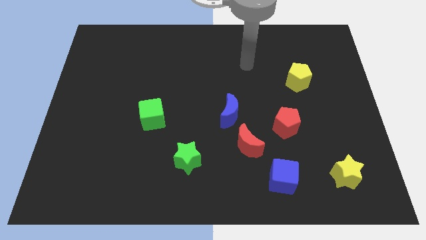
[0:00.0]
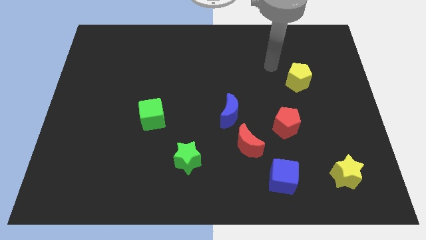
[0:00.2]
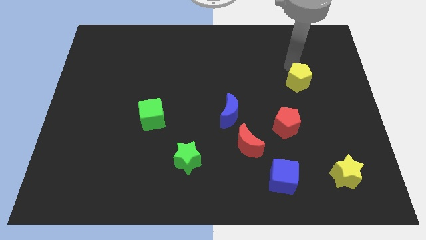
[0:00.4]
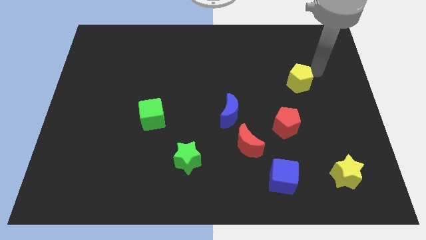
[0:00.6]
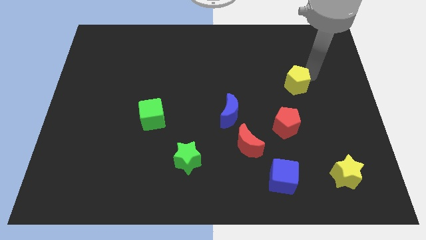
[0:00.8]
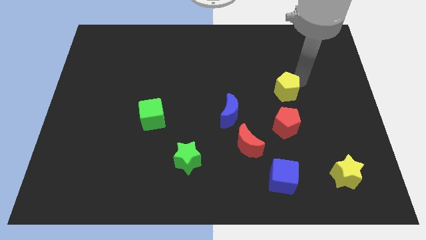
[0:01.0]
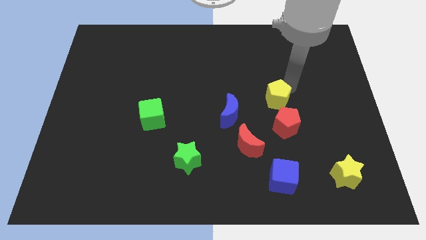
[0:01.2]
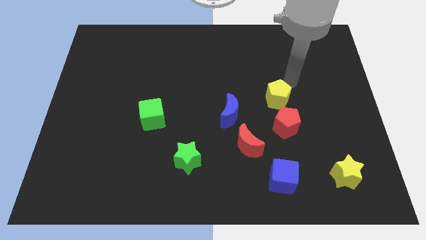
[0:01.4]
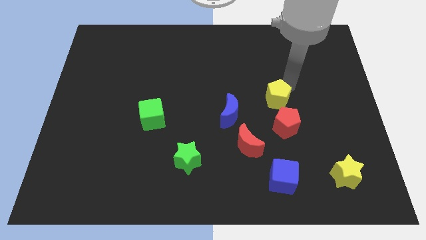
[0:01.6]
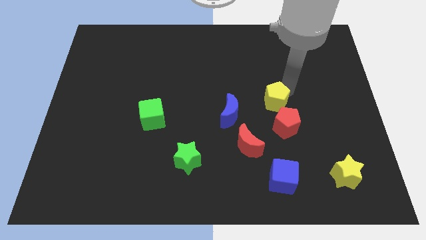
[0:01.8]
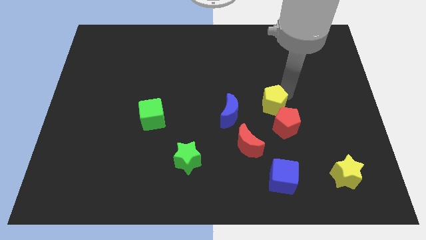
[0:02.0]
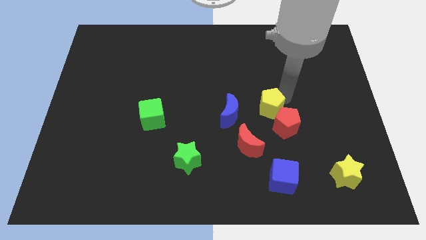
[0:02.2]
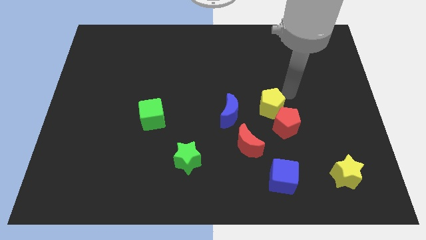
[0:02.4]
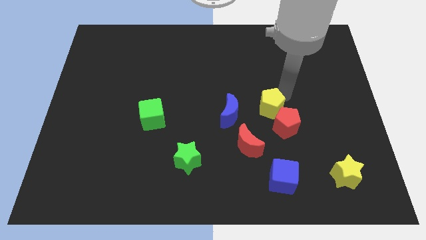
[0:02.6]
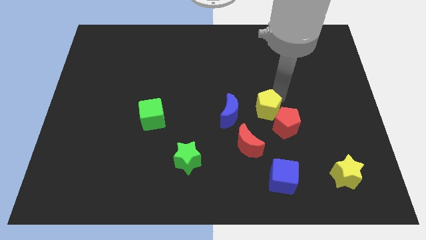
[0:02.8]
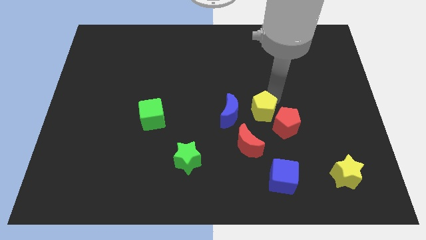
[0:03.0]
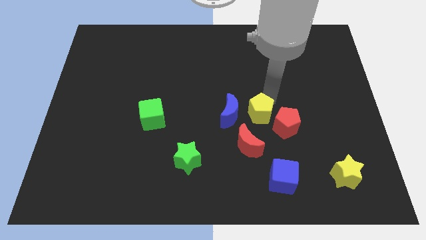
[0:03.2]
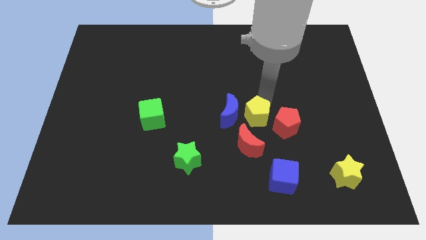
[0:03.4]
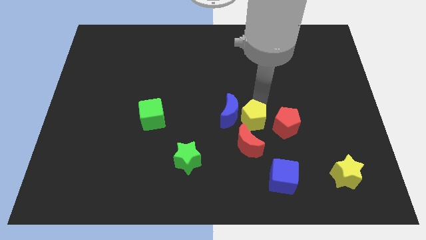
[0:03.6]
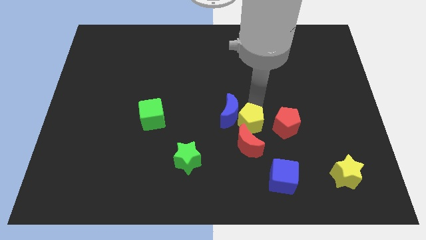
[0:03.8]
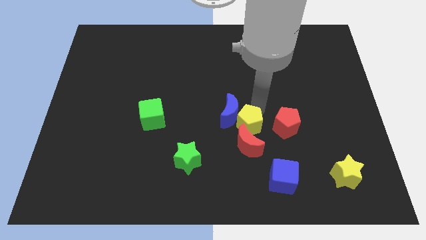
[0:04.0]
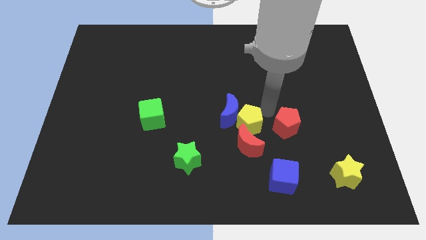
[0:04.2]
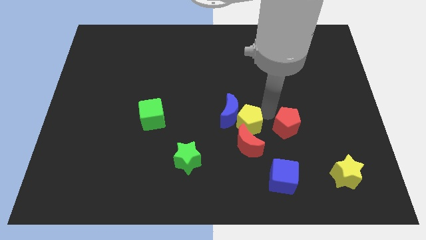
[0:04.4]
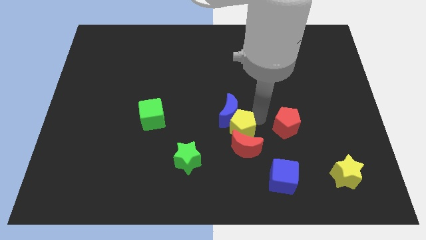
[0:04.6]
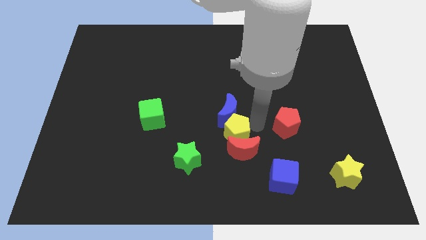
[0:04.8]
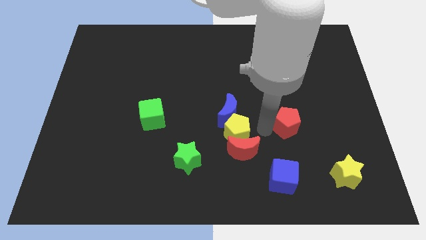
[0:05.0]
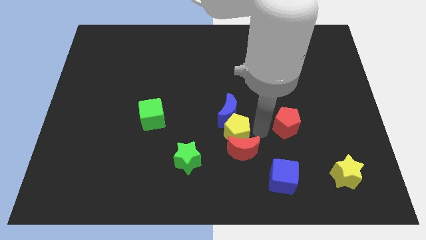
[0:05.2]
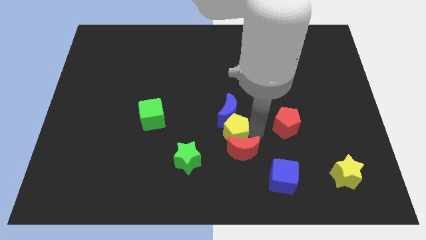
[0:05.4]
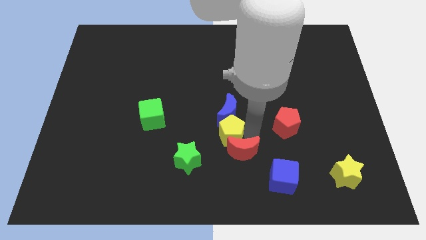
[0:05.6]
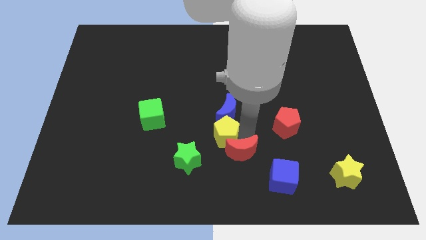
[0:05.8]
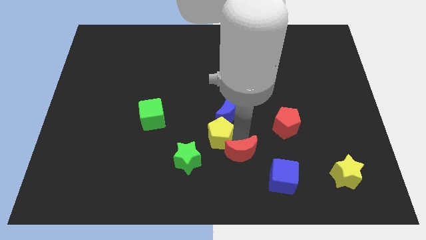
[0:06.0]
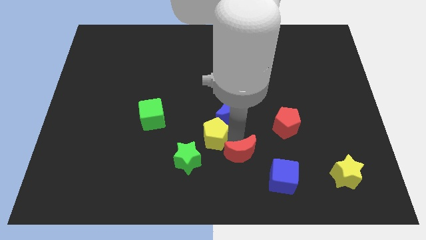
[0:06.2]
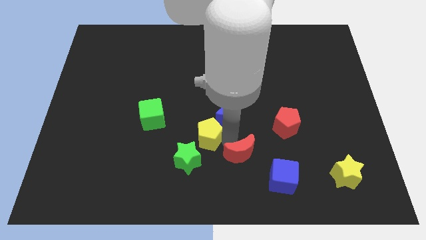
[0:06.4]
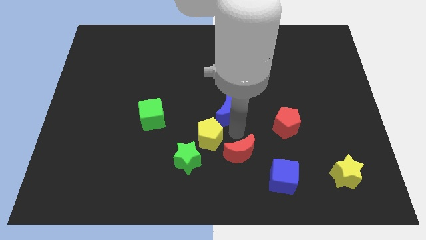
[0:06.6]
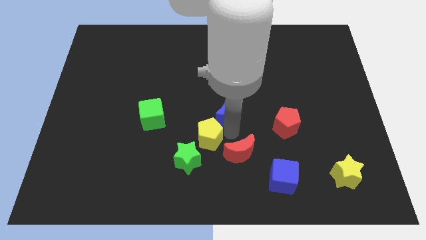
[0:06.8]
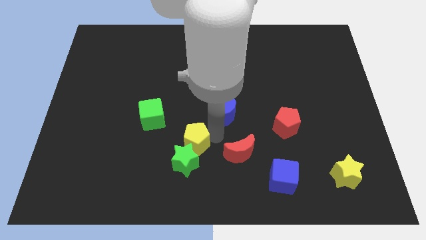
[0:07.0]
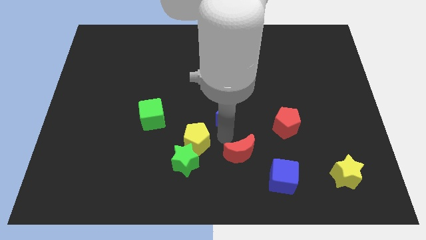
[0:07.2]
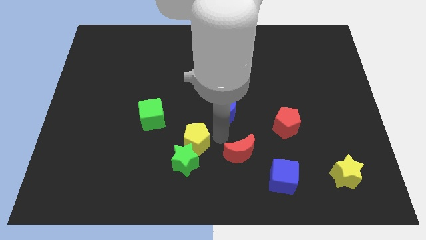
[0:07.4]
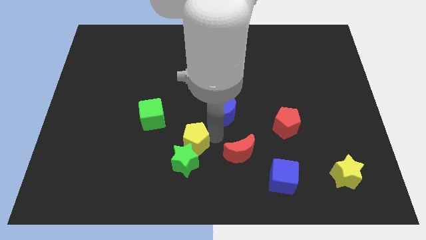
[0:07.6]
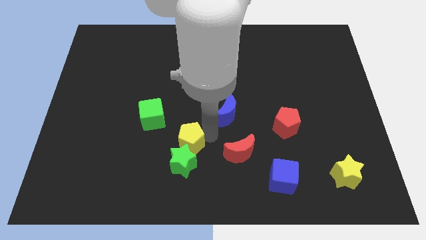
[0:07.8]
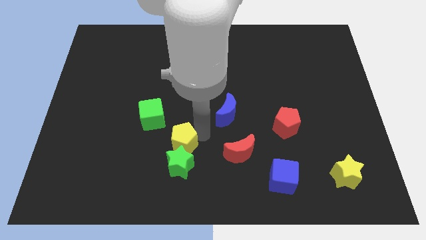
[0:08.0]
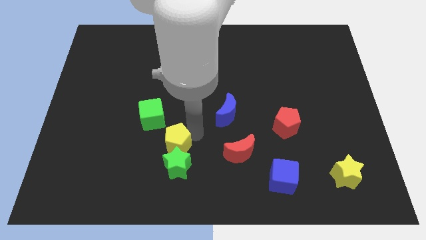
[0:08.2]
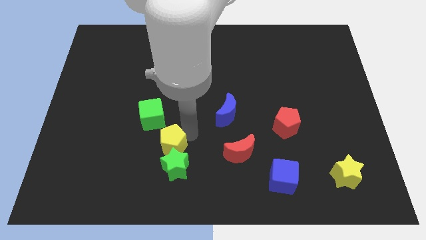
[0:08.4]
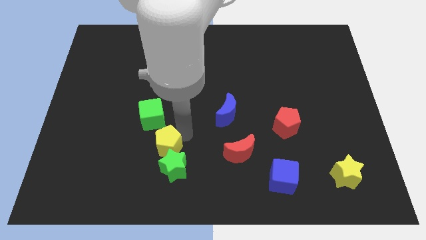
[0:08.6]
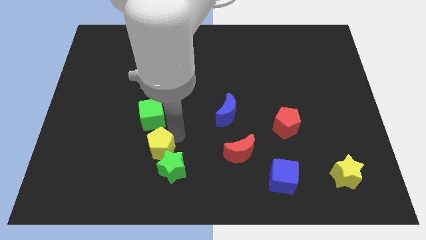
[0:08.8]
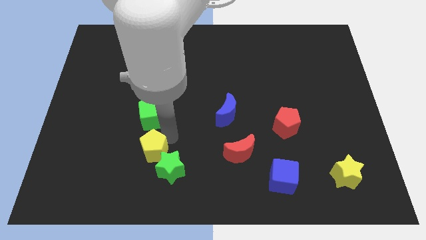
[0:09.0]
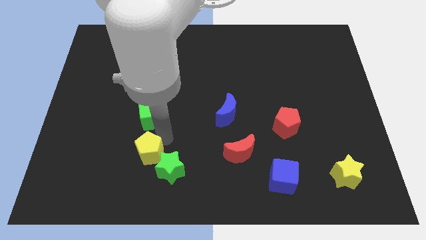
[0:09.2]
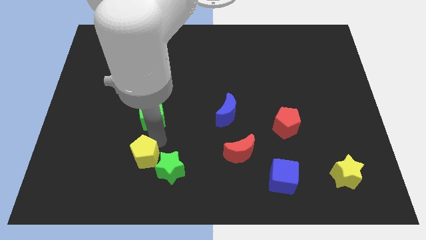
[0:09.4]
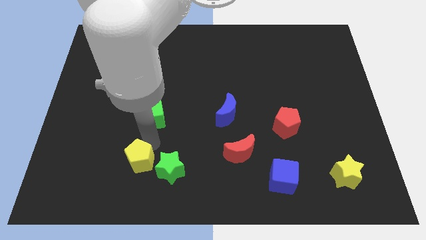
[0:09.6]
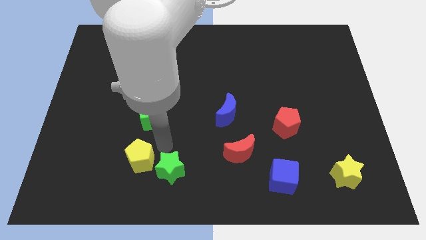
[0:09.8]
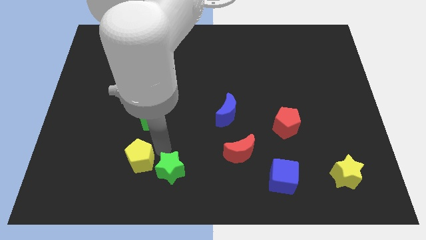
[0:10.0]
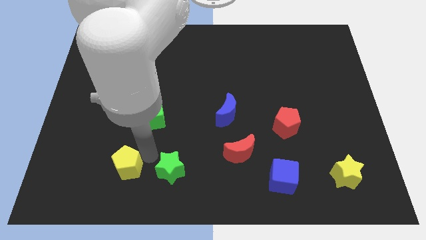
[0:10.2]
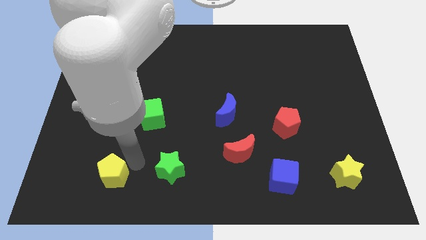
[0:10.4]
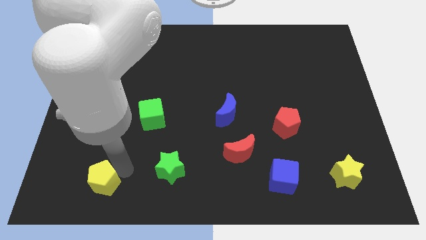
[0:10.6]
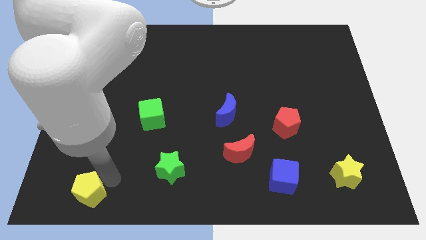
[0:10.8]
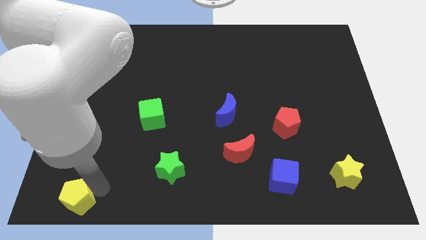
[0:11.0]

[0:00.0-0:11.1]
slide the yellow pentagon to the bottom left of the board

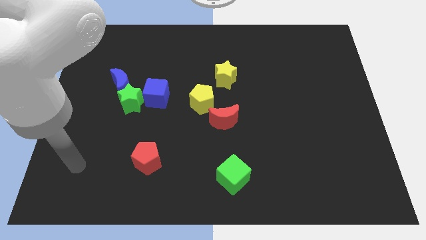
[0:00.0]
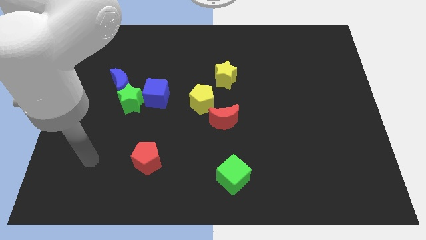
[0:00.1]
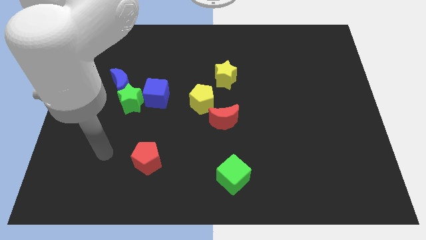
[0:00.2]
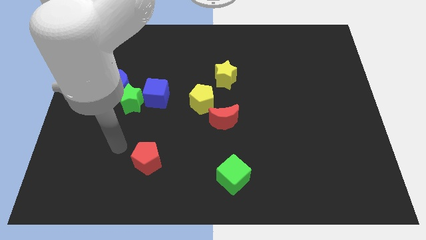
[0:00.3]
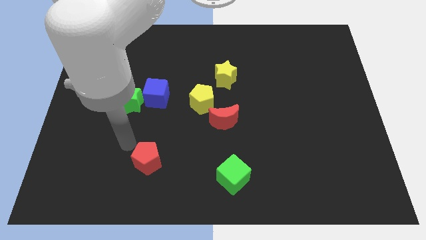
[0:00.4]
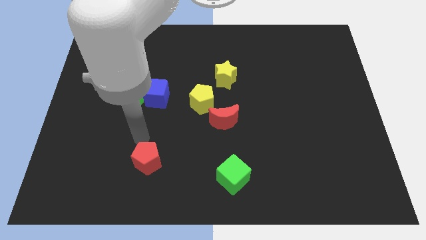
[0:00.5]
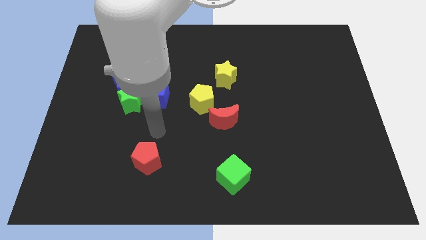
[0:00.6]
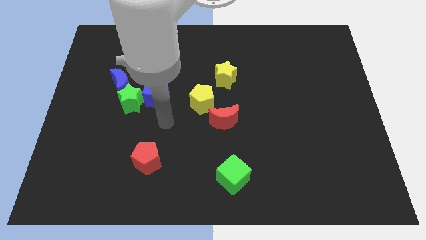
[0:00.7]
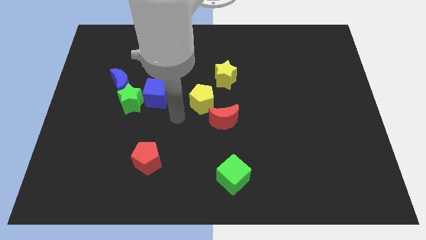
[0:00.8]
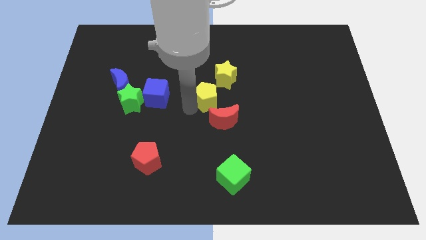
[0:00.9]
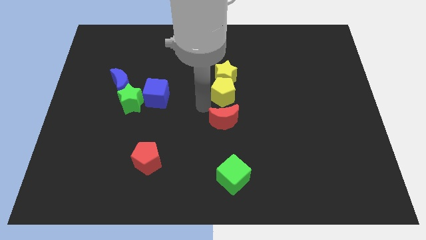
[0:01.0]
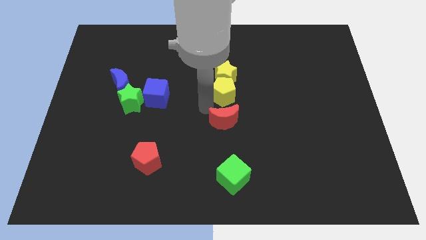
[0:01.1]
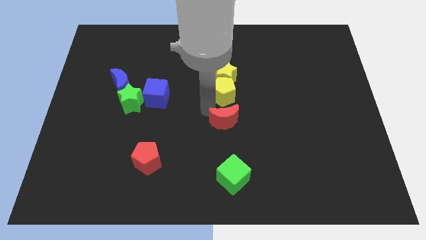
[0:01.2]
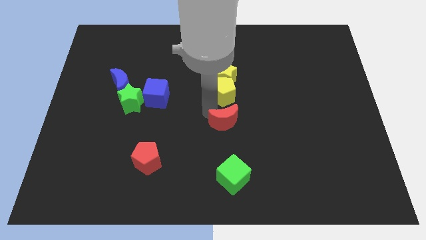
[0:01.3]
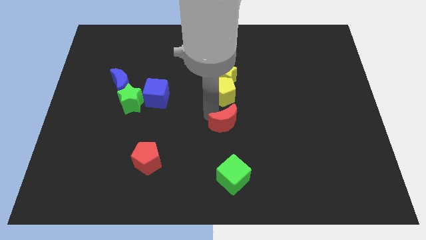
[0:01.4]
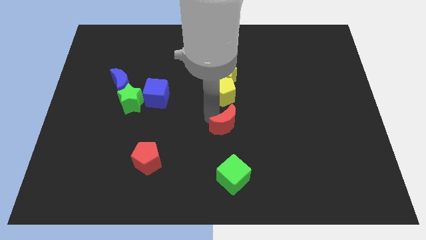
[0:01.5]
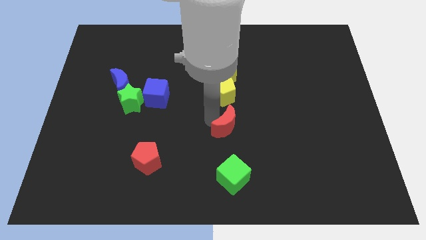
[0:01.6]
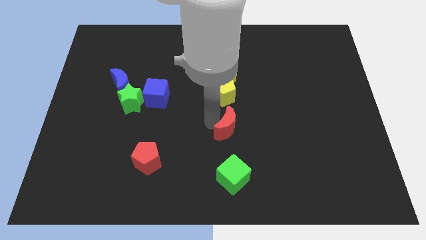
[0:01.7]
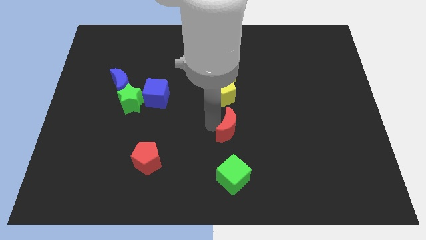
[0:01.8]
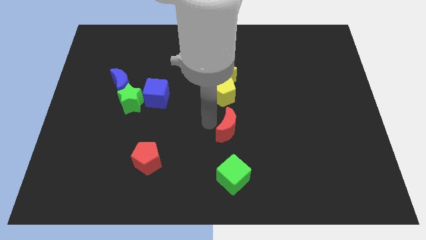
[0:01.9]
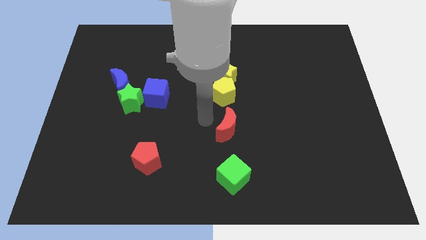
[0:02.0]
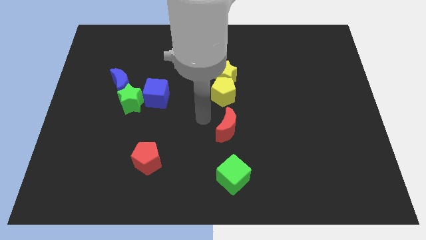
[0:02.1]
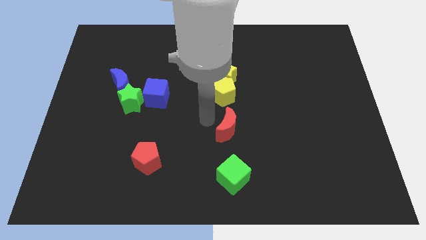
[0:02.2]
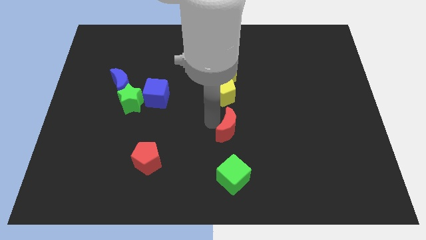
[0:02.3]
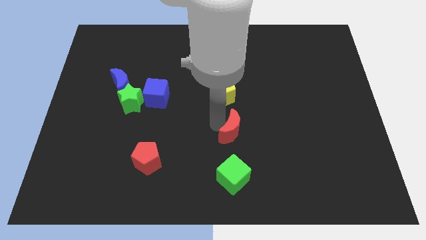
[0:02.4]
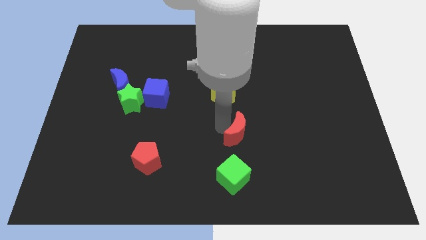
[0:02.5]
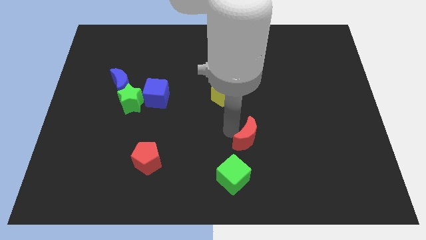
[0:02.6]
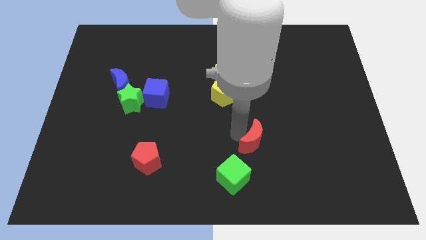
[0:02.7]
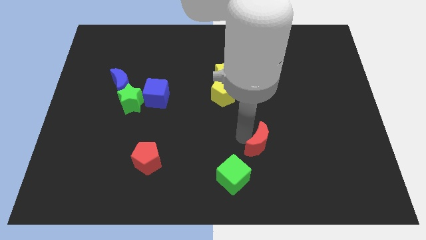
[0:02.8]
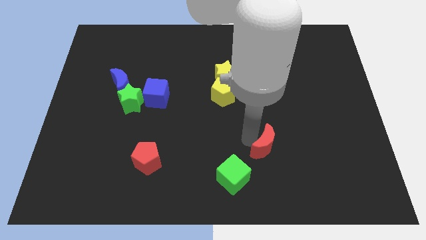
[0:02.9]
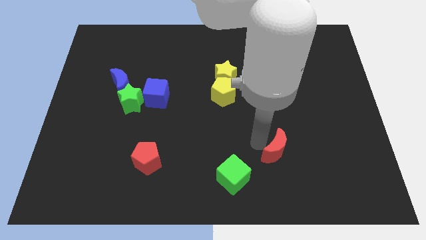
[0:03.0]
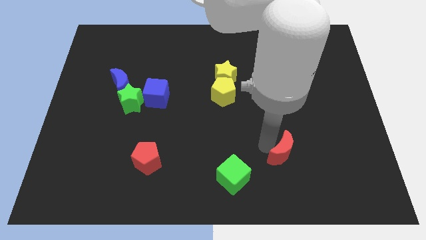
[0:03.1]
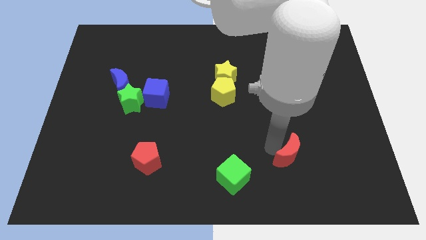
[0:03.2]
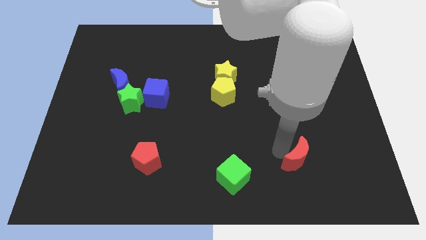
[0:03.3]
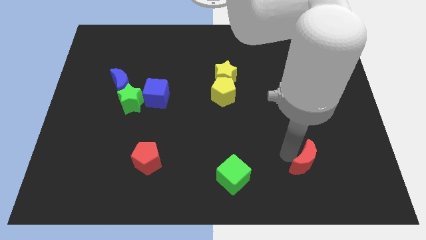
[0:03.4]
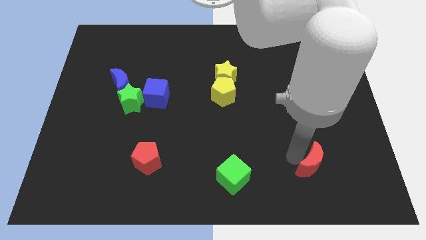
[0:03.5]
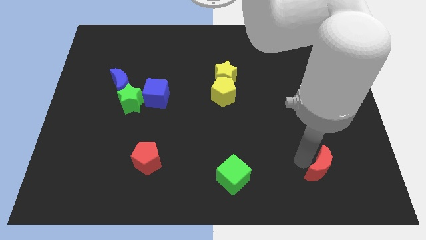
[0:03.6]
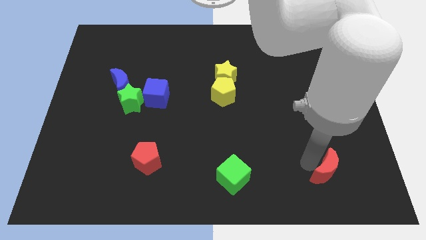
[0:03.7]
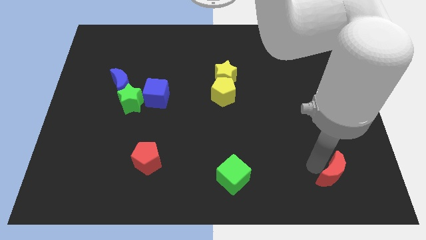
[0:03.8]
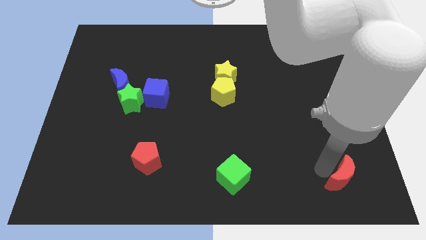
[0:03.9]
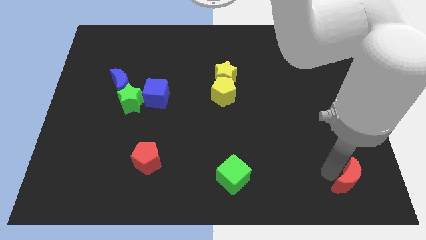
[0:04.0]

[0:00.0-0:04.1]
move the red moon to the bottom right of the board
